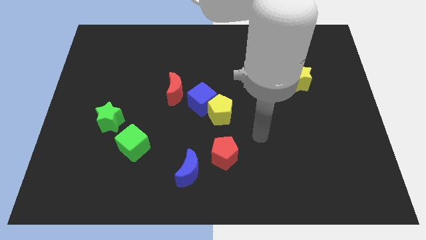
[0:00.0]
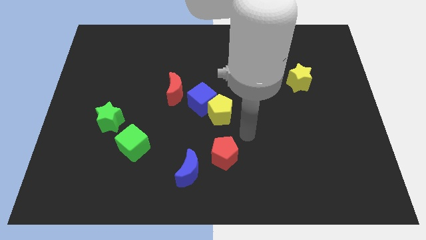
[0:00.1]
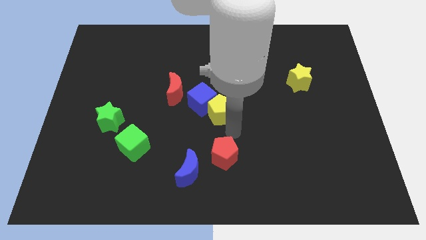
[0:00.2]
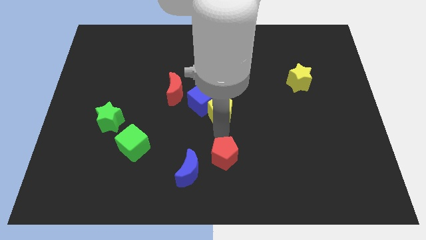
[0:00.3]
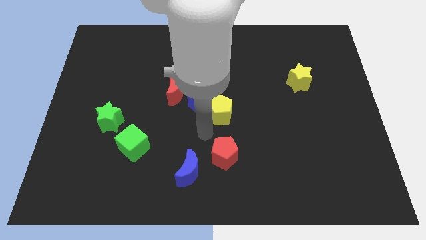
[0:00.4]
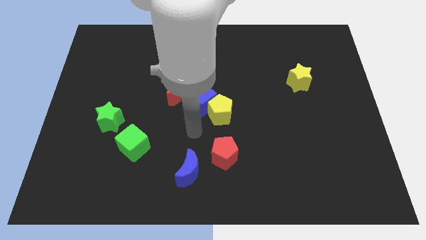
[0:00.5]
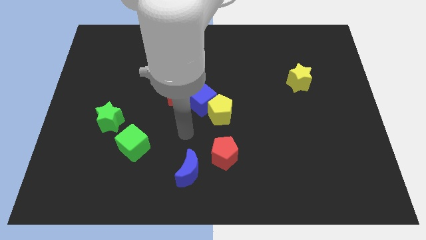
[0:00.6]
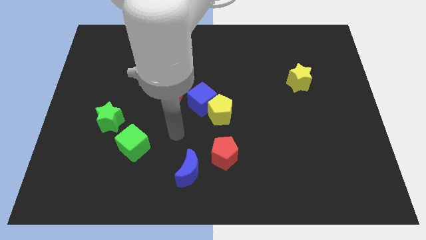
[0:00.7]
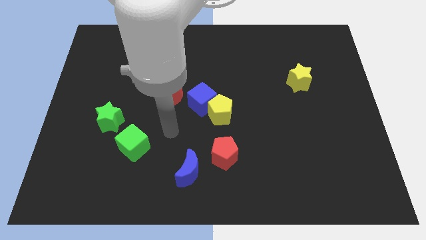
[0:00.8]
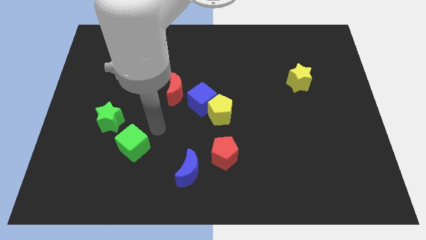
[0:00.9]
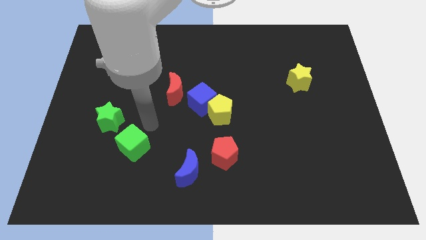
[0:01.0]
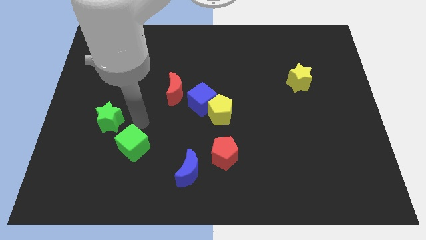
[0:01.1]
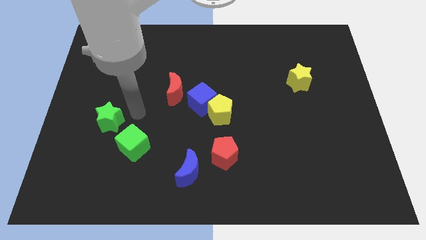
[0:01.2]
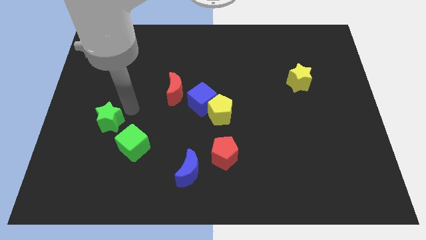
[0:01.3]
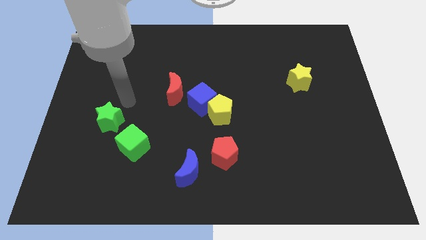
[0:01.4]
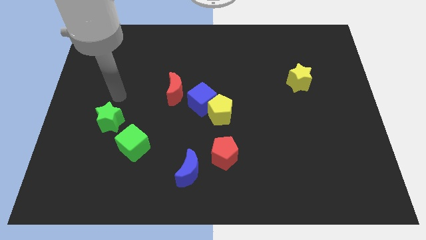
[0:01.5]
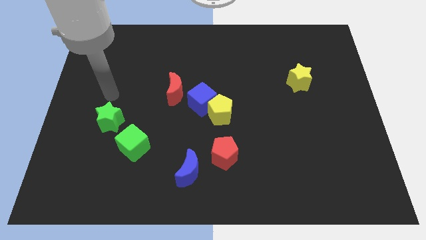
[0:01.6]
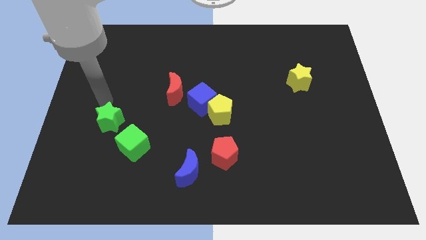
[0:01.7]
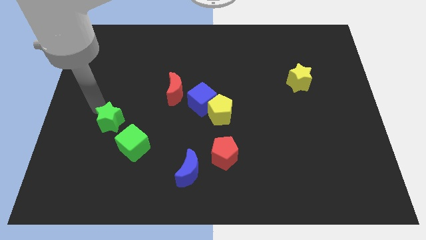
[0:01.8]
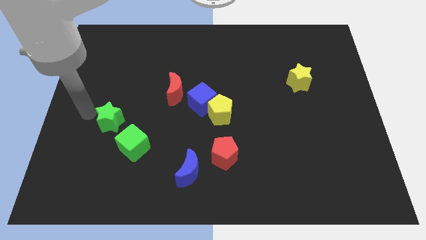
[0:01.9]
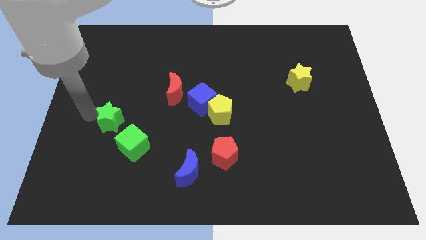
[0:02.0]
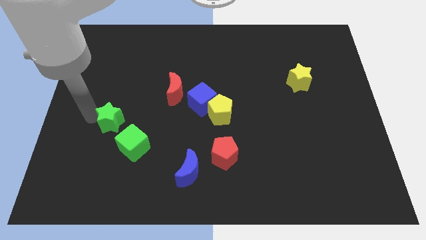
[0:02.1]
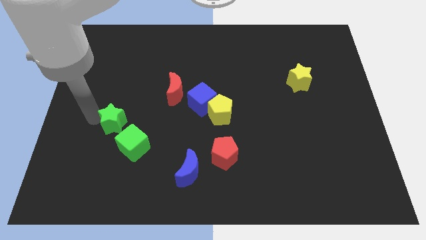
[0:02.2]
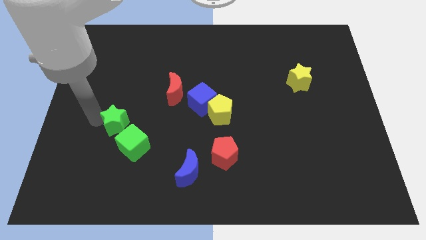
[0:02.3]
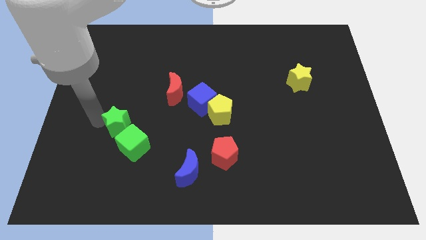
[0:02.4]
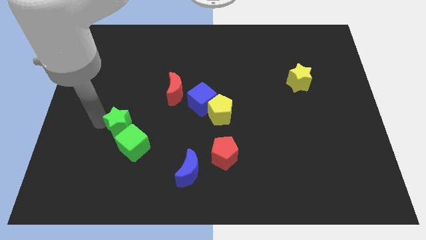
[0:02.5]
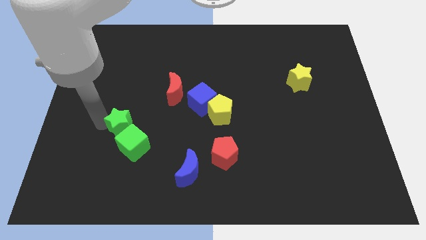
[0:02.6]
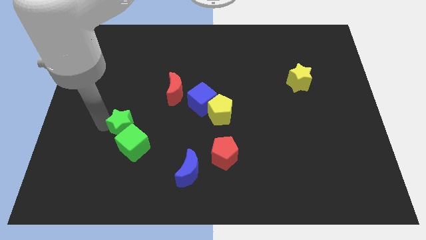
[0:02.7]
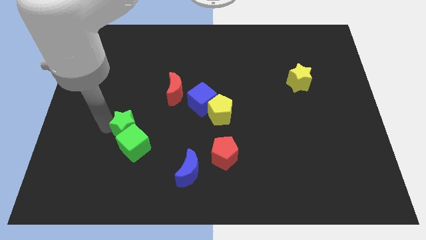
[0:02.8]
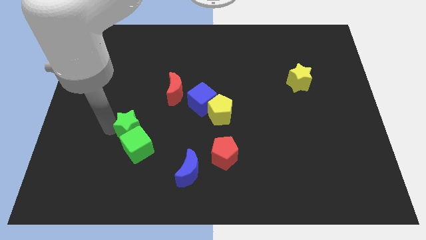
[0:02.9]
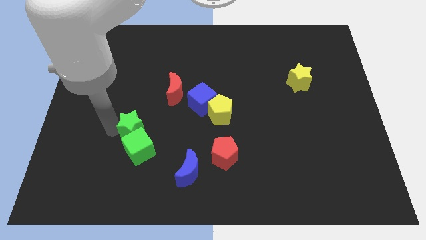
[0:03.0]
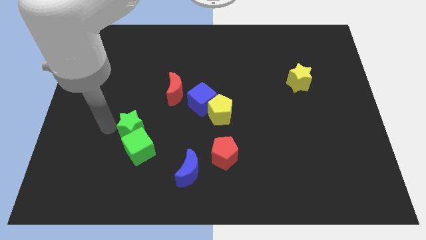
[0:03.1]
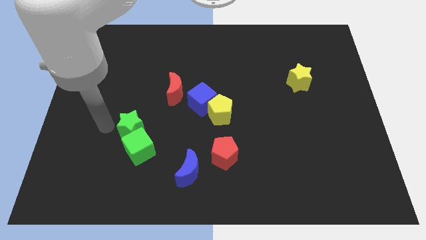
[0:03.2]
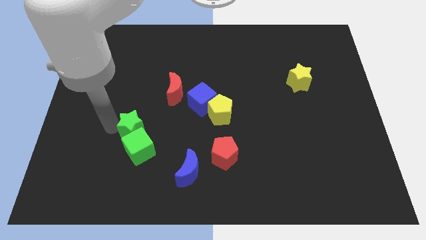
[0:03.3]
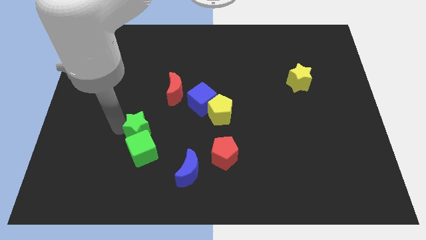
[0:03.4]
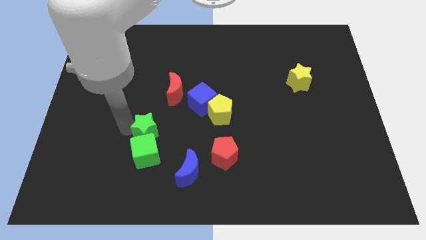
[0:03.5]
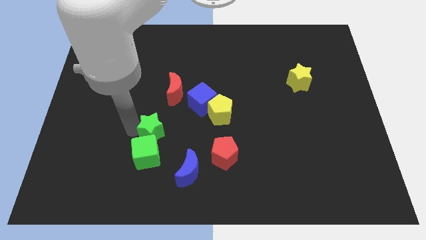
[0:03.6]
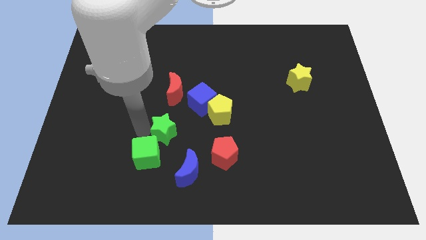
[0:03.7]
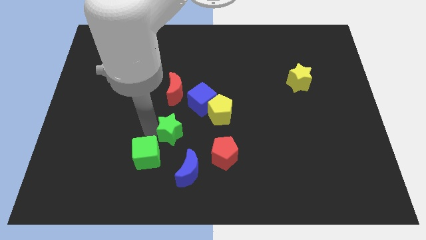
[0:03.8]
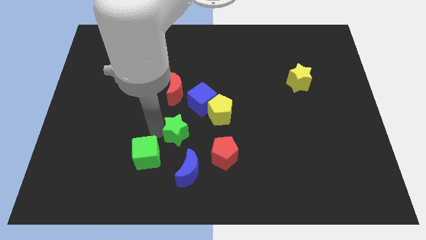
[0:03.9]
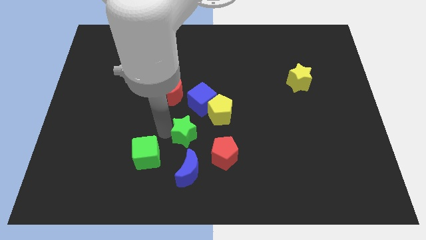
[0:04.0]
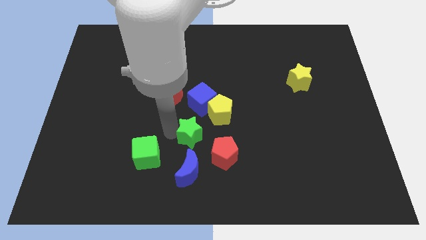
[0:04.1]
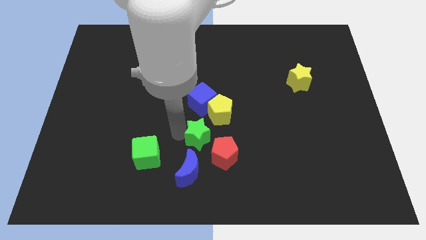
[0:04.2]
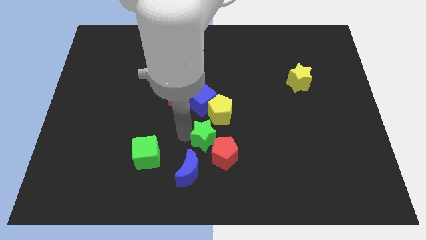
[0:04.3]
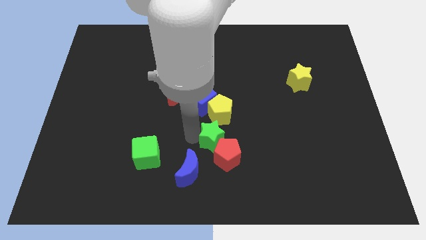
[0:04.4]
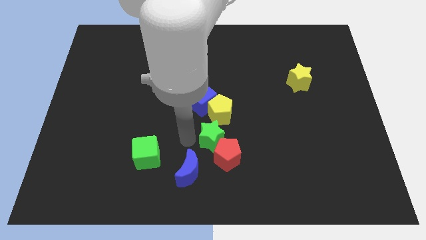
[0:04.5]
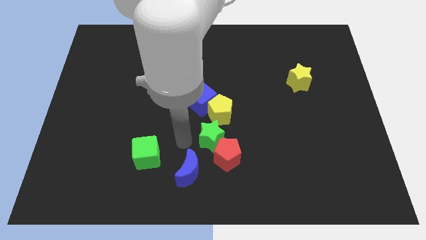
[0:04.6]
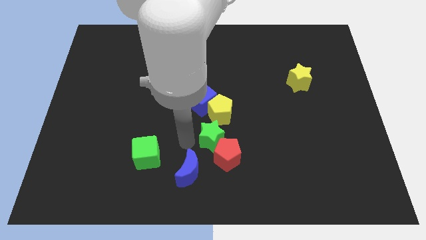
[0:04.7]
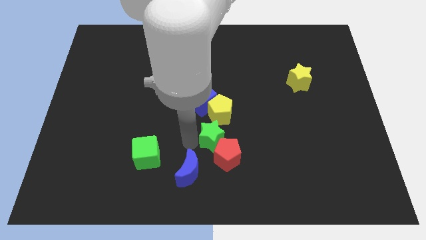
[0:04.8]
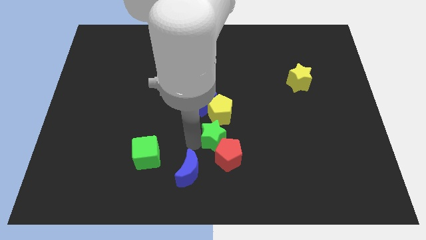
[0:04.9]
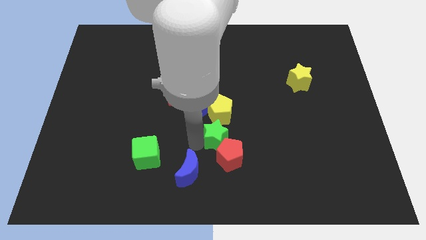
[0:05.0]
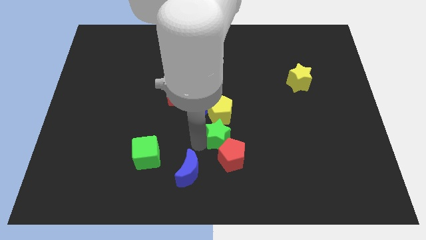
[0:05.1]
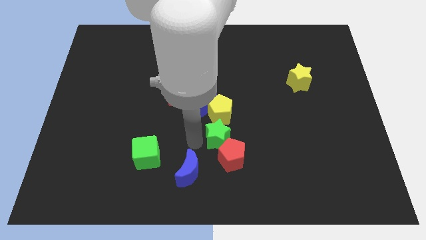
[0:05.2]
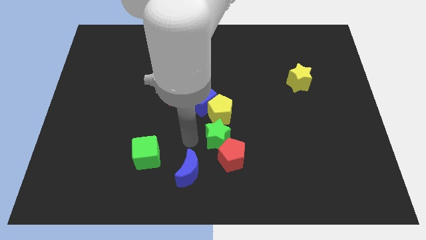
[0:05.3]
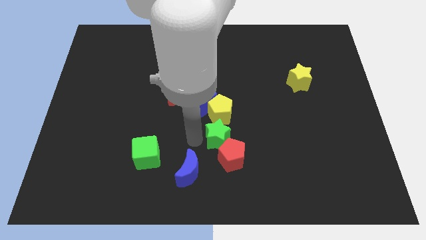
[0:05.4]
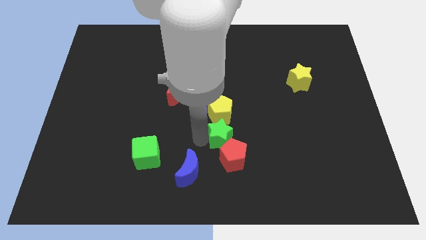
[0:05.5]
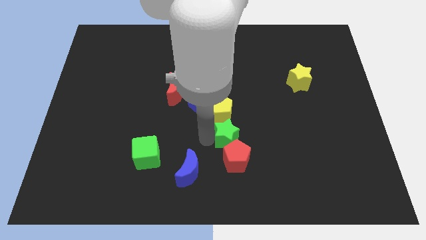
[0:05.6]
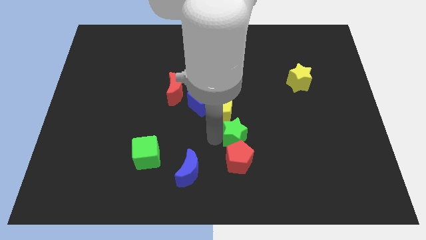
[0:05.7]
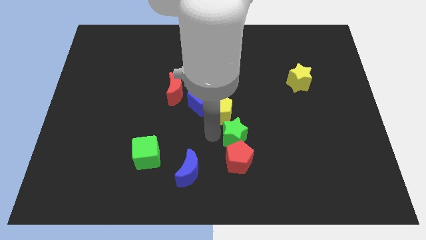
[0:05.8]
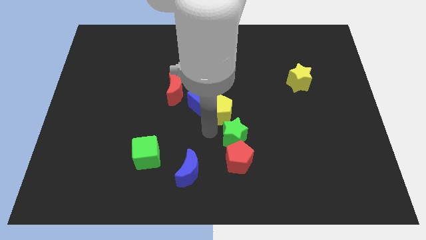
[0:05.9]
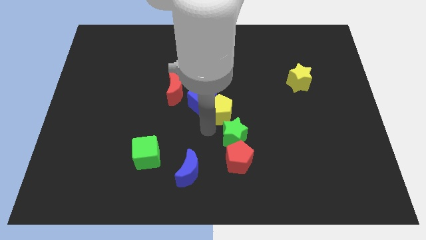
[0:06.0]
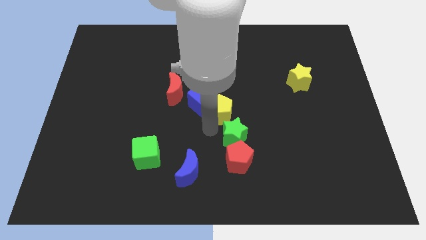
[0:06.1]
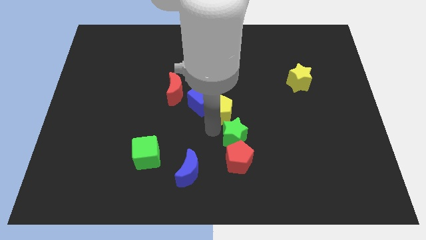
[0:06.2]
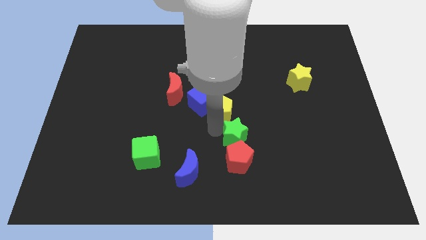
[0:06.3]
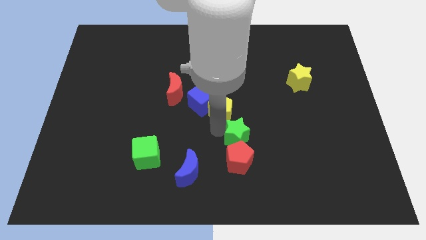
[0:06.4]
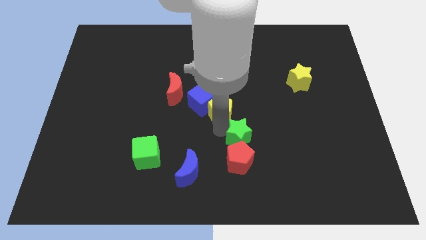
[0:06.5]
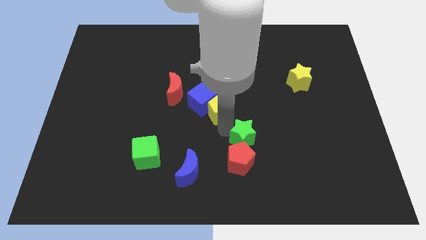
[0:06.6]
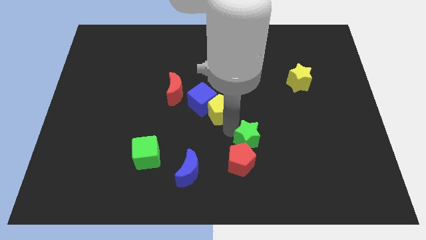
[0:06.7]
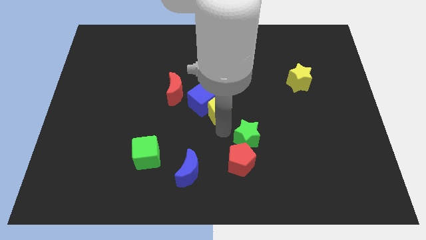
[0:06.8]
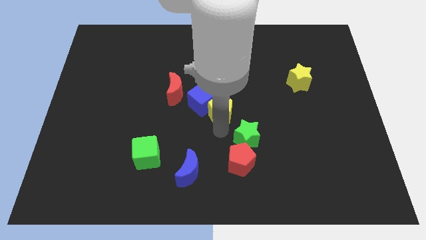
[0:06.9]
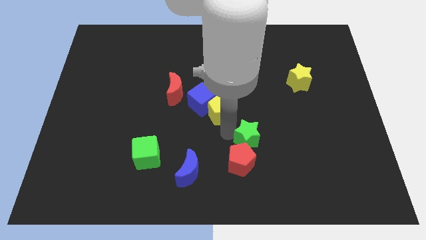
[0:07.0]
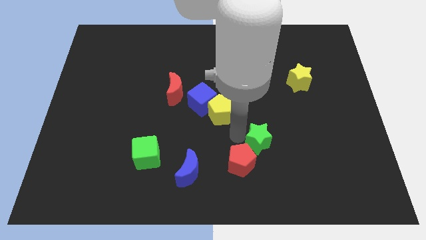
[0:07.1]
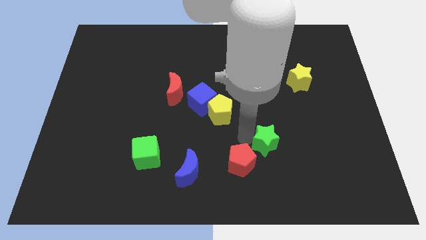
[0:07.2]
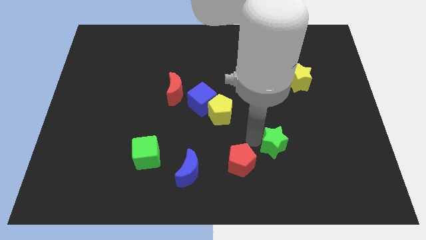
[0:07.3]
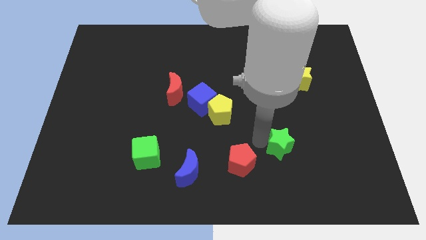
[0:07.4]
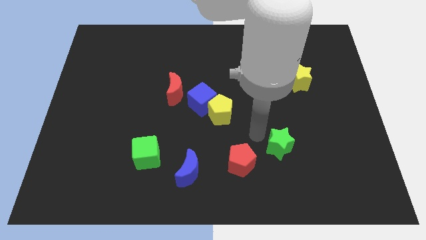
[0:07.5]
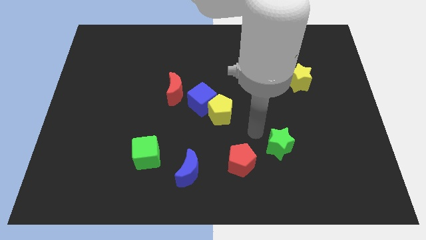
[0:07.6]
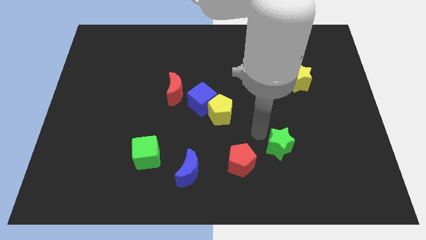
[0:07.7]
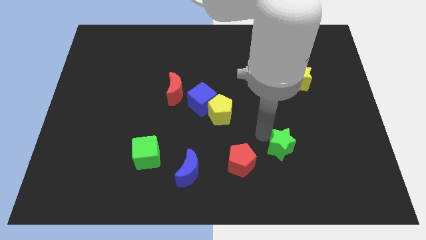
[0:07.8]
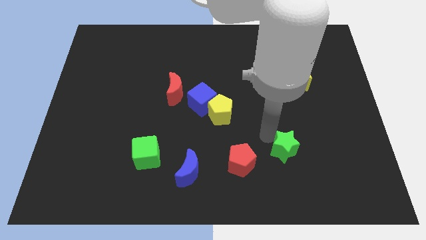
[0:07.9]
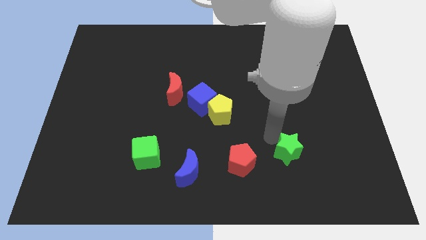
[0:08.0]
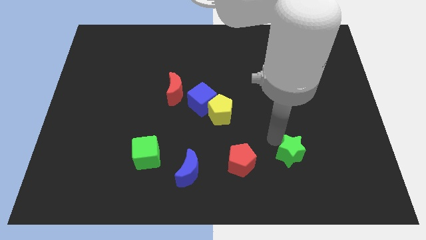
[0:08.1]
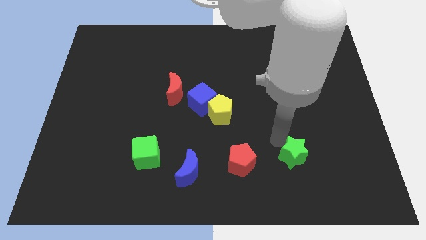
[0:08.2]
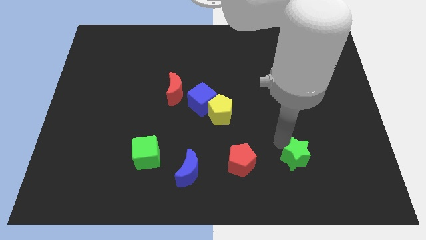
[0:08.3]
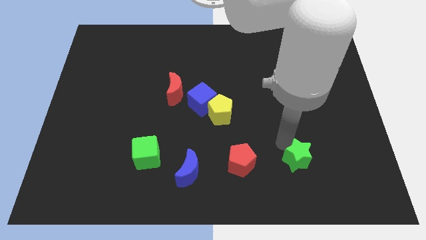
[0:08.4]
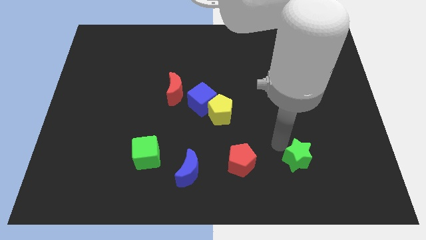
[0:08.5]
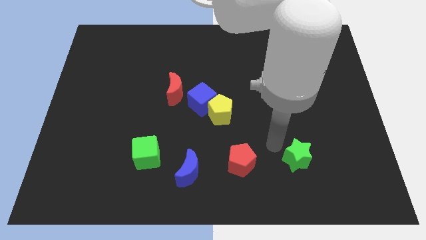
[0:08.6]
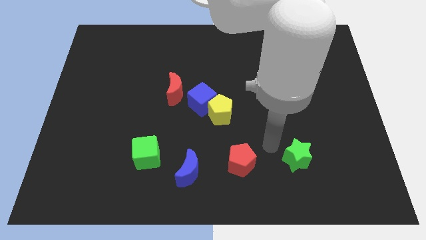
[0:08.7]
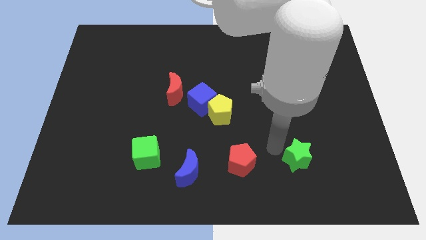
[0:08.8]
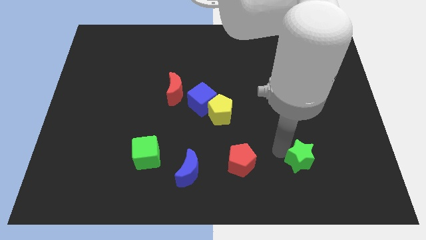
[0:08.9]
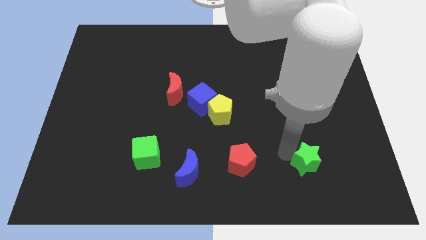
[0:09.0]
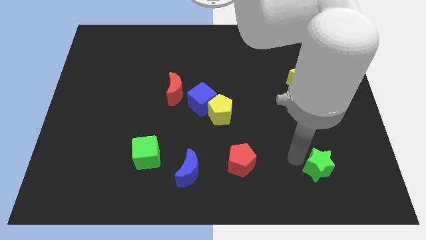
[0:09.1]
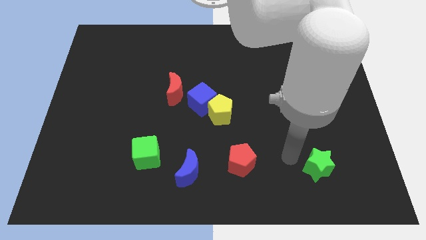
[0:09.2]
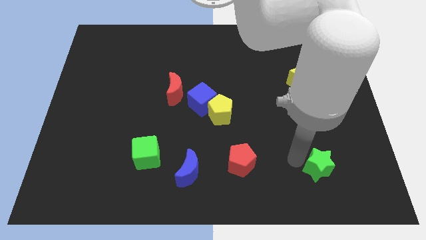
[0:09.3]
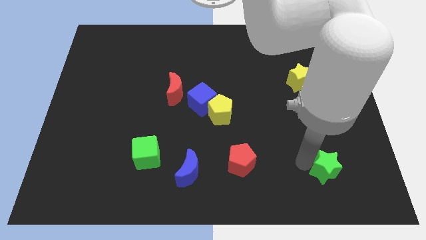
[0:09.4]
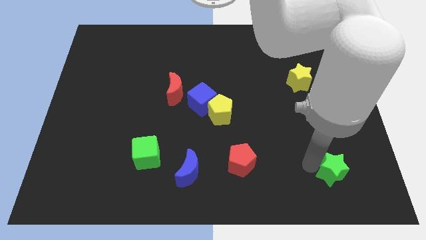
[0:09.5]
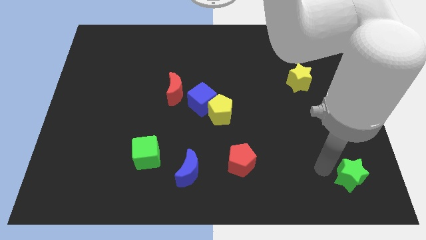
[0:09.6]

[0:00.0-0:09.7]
slide the green star to the lower right corner
